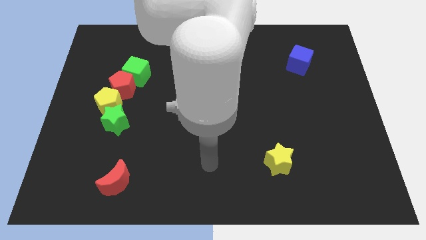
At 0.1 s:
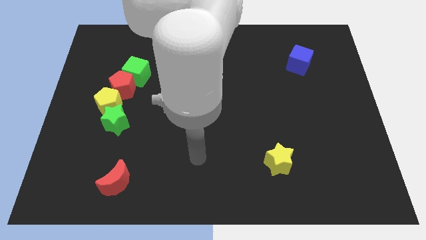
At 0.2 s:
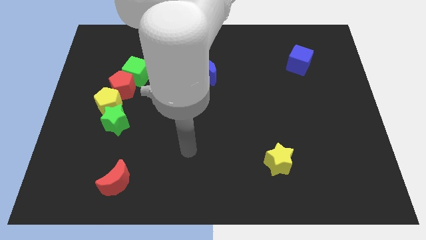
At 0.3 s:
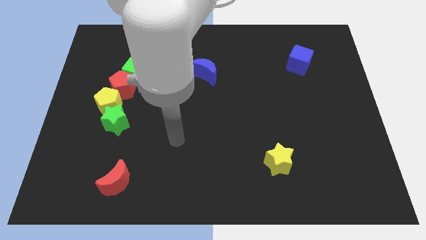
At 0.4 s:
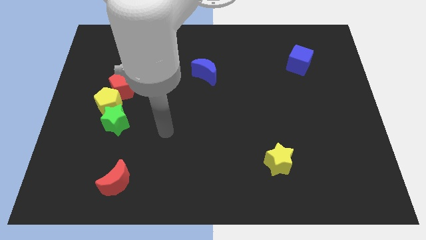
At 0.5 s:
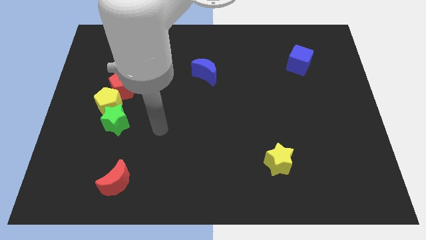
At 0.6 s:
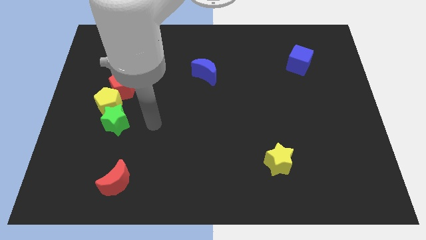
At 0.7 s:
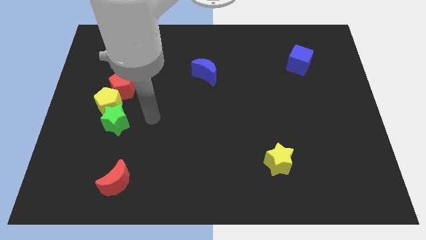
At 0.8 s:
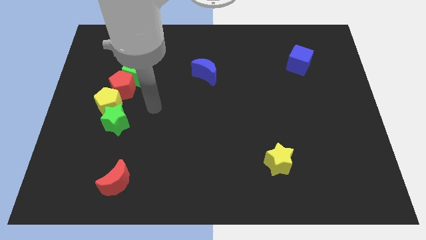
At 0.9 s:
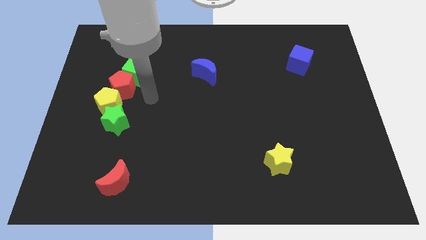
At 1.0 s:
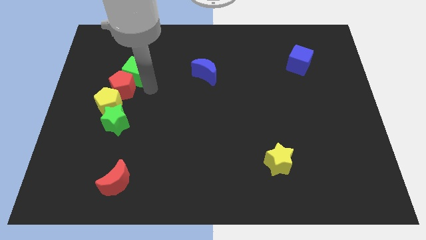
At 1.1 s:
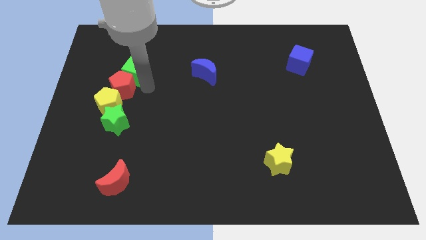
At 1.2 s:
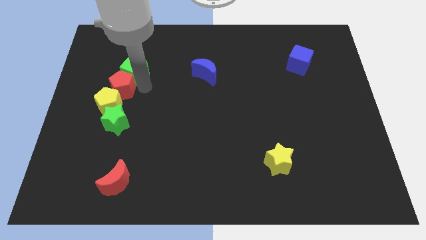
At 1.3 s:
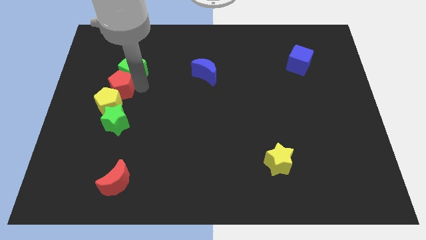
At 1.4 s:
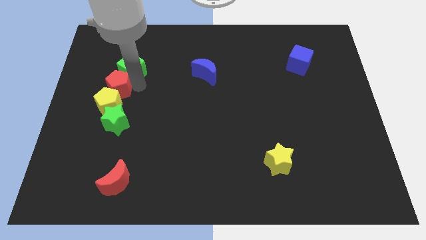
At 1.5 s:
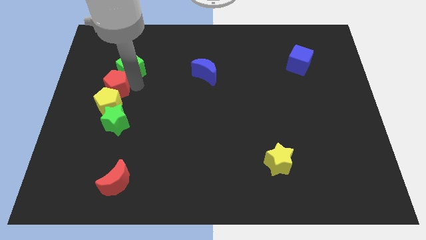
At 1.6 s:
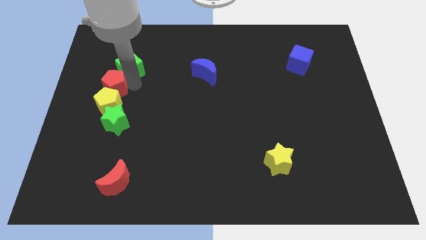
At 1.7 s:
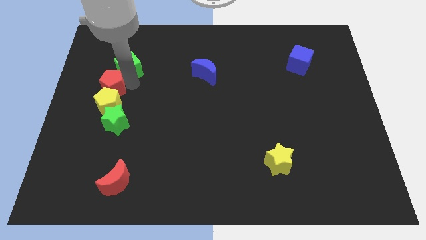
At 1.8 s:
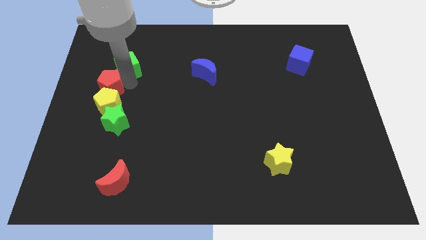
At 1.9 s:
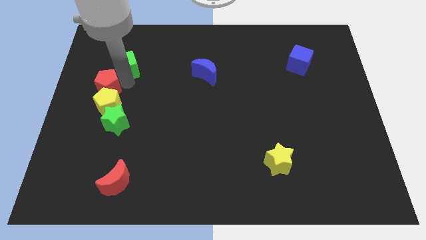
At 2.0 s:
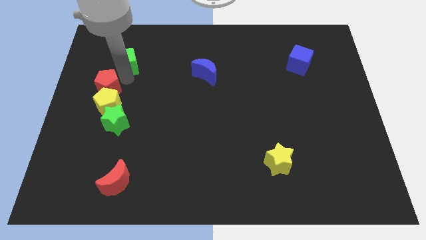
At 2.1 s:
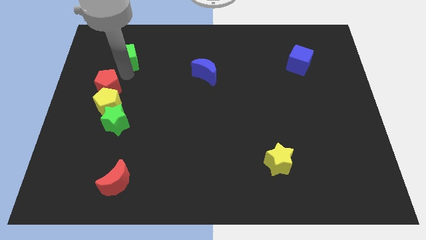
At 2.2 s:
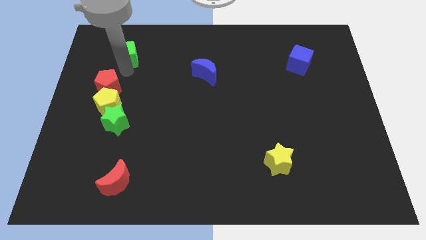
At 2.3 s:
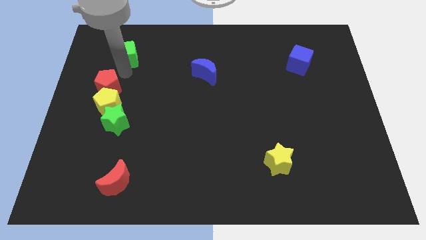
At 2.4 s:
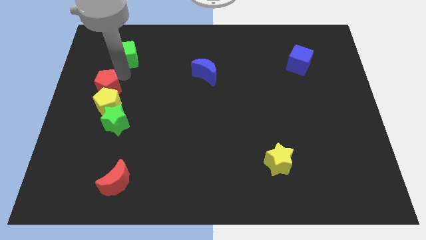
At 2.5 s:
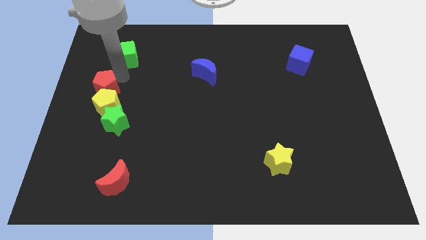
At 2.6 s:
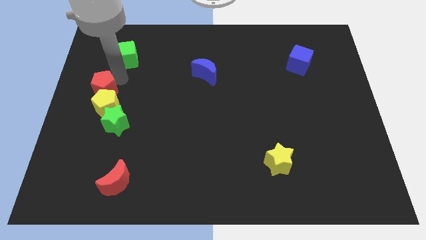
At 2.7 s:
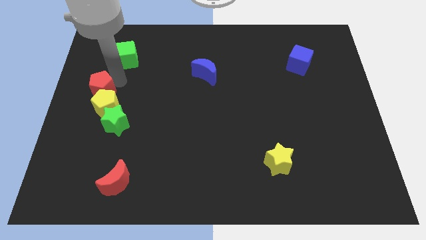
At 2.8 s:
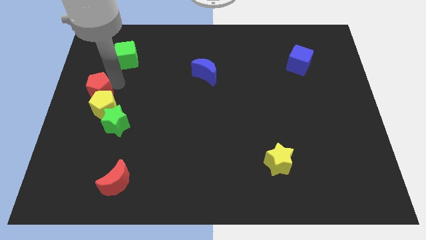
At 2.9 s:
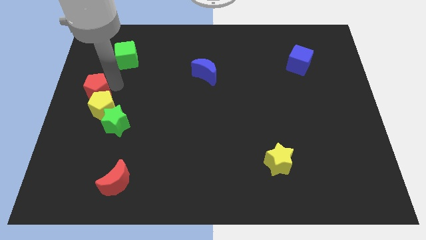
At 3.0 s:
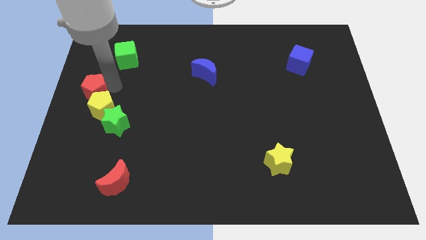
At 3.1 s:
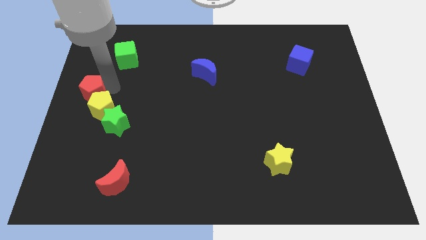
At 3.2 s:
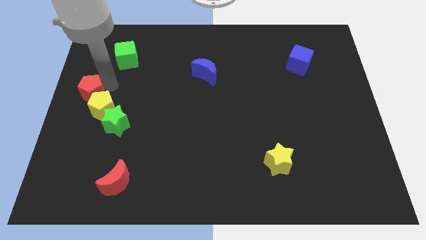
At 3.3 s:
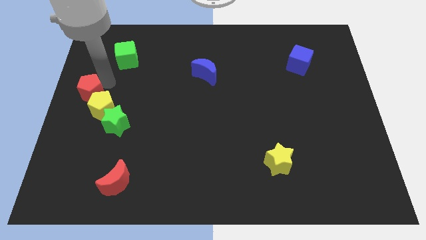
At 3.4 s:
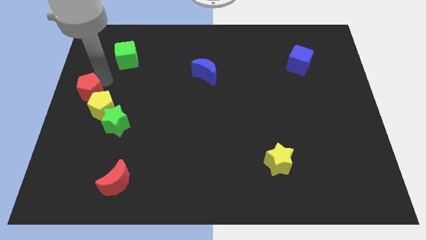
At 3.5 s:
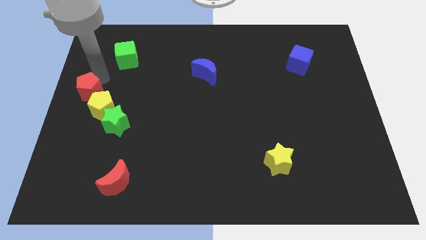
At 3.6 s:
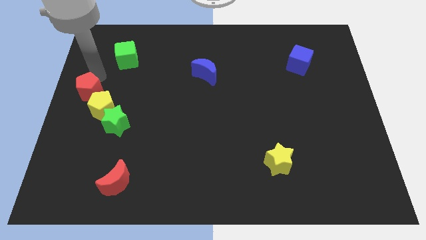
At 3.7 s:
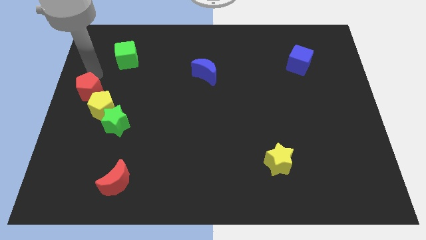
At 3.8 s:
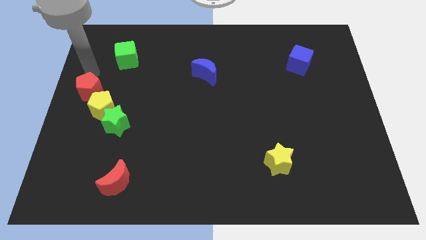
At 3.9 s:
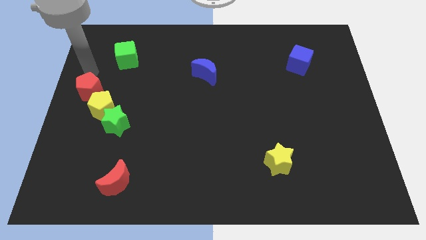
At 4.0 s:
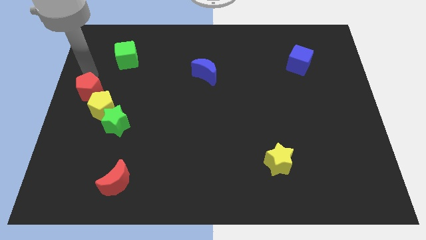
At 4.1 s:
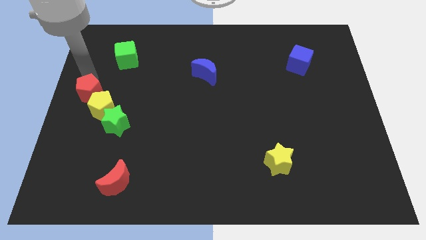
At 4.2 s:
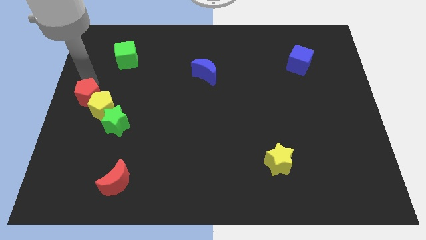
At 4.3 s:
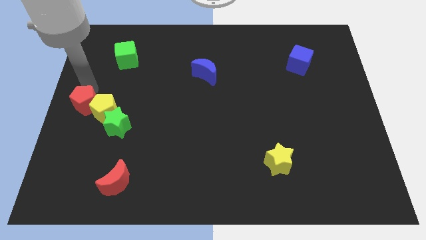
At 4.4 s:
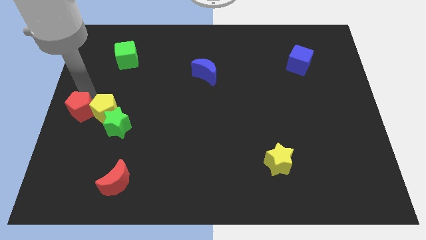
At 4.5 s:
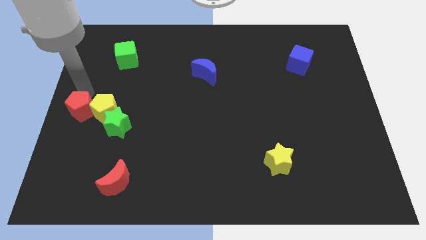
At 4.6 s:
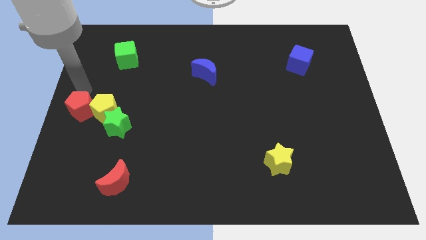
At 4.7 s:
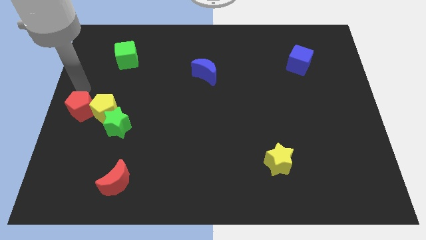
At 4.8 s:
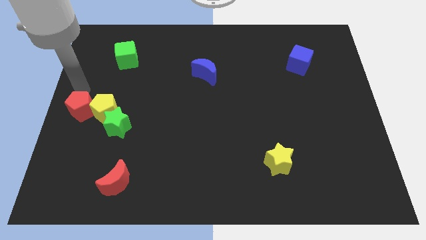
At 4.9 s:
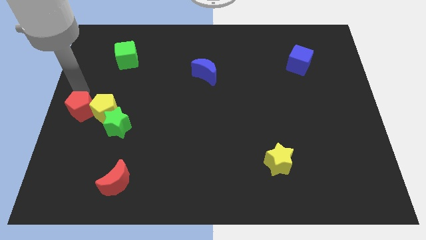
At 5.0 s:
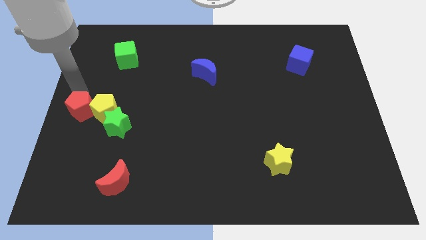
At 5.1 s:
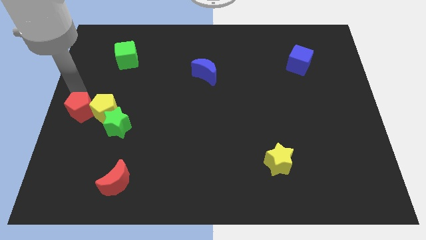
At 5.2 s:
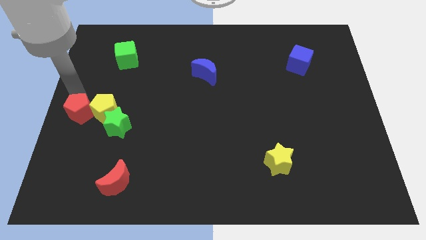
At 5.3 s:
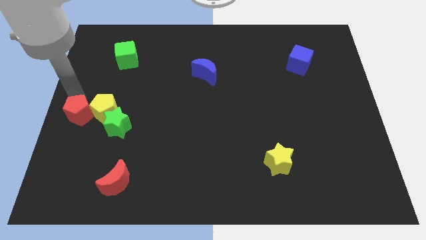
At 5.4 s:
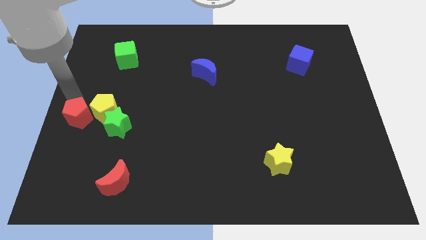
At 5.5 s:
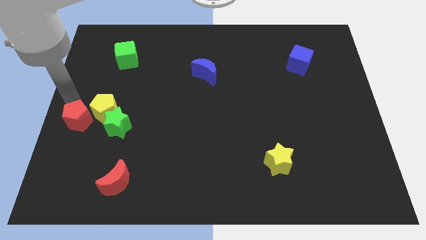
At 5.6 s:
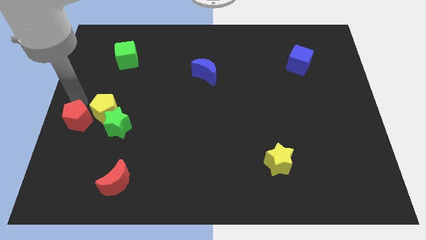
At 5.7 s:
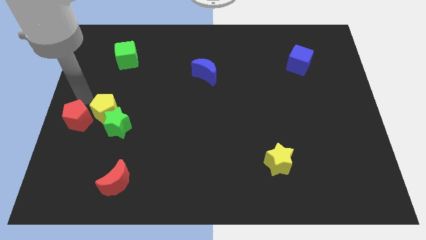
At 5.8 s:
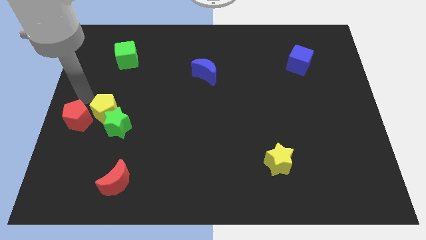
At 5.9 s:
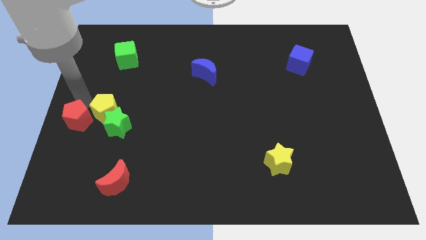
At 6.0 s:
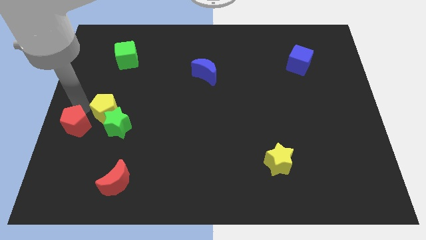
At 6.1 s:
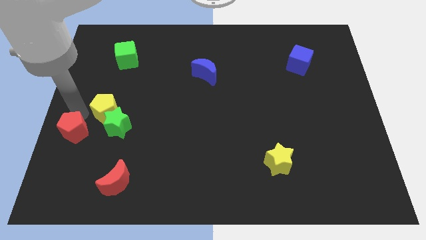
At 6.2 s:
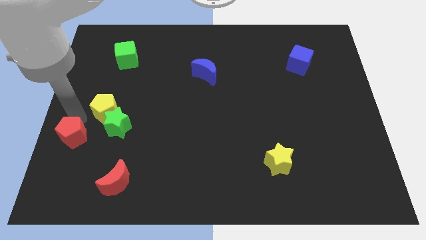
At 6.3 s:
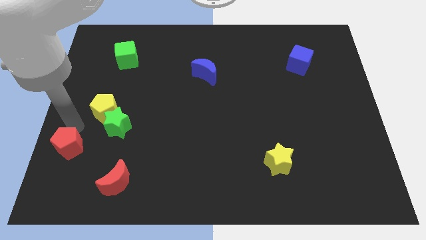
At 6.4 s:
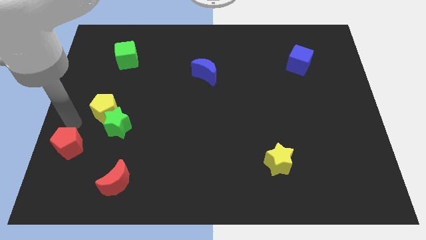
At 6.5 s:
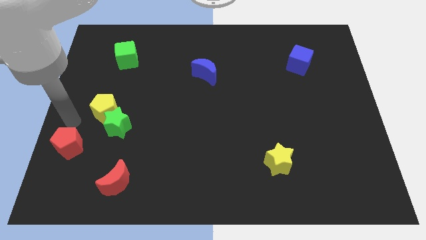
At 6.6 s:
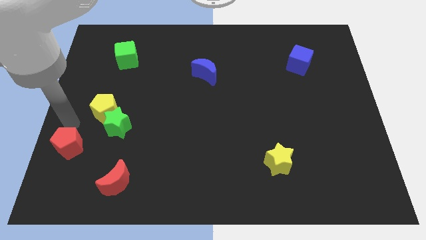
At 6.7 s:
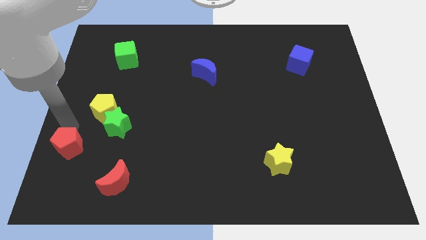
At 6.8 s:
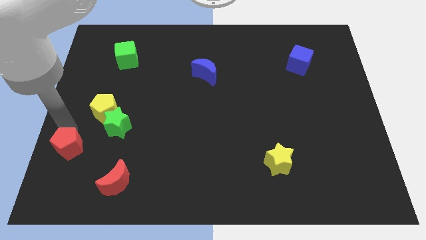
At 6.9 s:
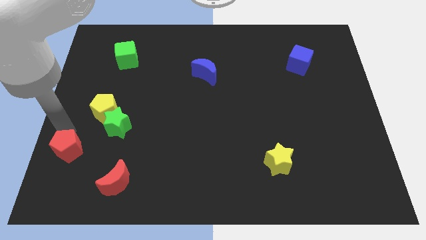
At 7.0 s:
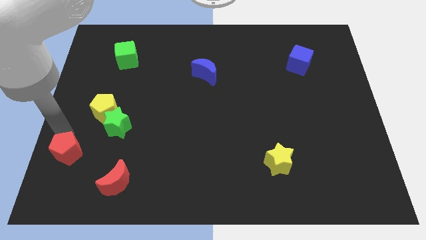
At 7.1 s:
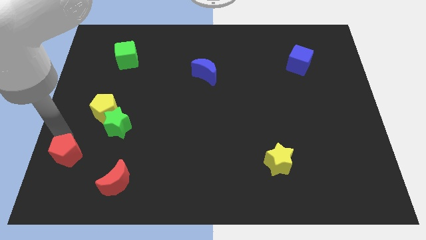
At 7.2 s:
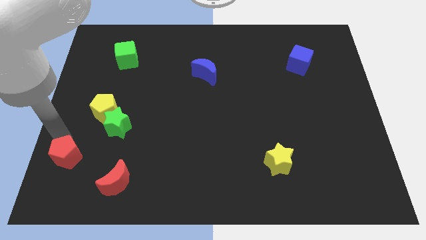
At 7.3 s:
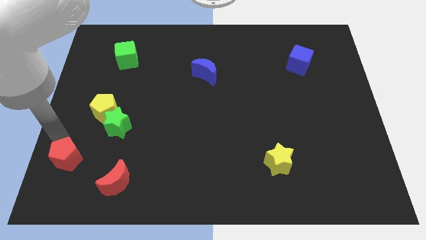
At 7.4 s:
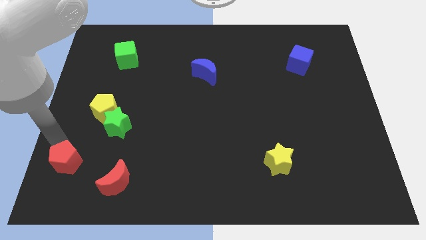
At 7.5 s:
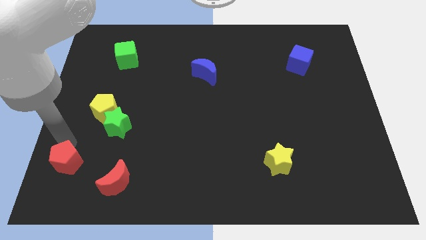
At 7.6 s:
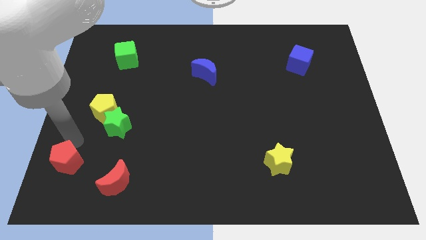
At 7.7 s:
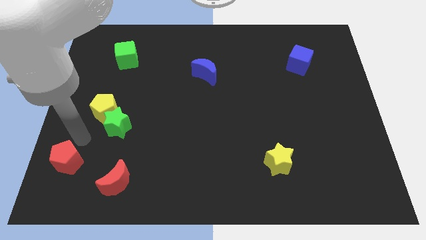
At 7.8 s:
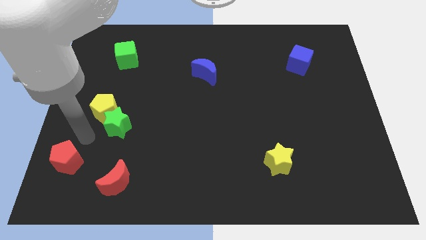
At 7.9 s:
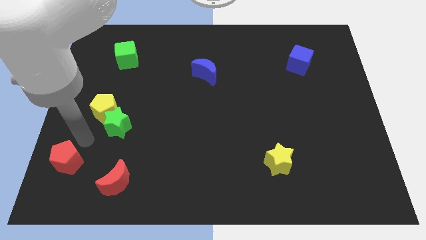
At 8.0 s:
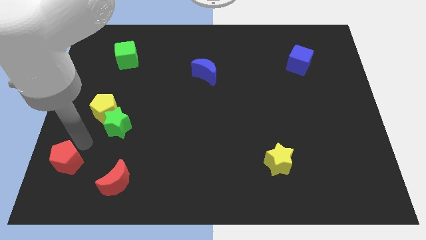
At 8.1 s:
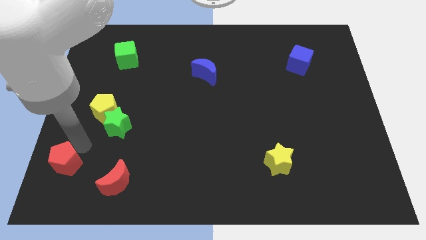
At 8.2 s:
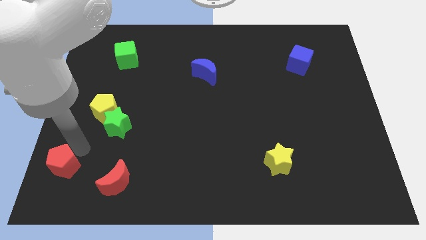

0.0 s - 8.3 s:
slide the red pentagon to the lower left corner
